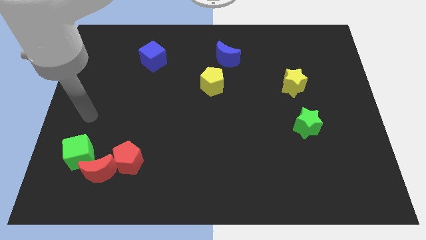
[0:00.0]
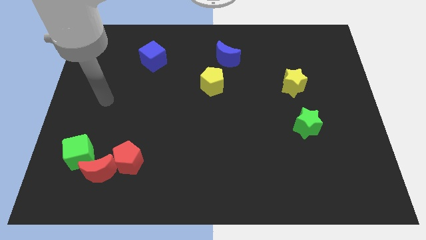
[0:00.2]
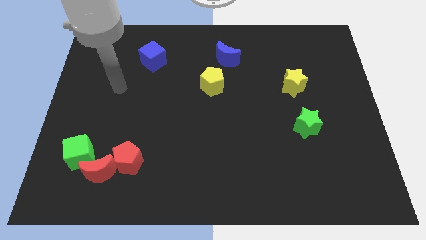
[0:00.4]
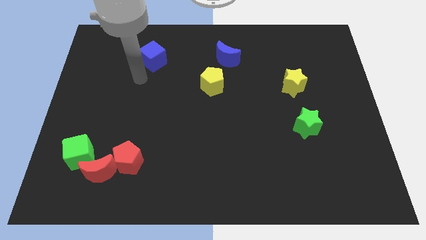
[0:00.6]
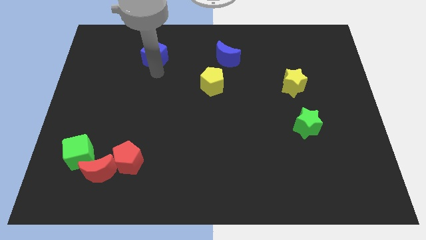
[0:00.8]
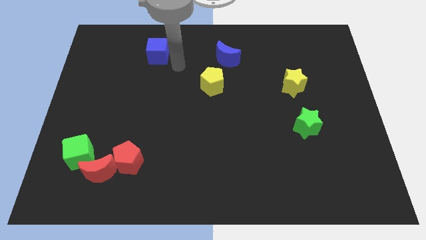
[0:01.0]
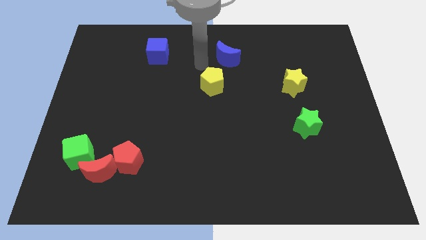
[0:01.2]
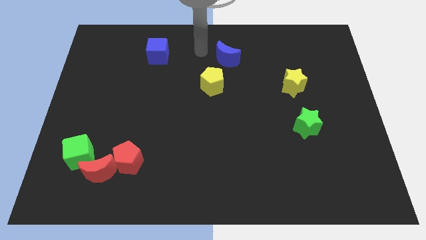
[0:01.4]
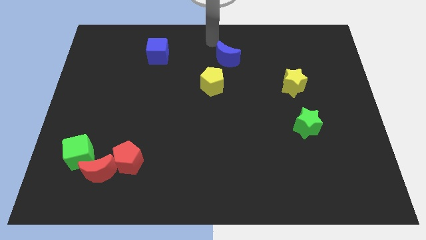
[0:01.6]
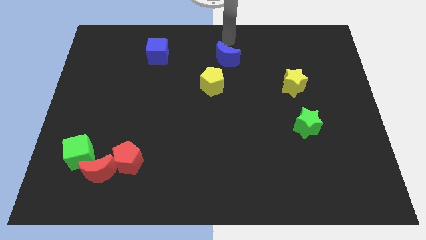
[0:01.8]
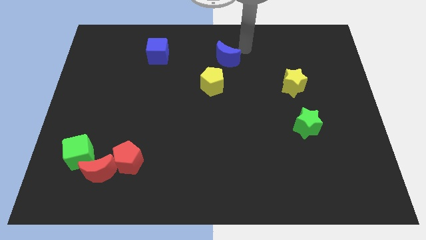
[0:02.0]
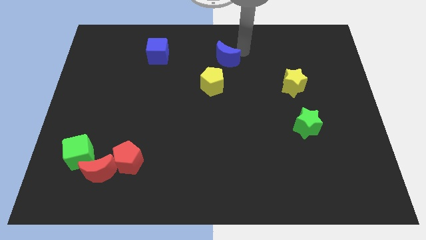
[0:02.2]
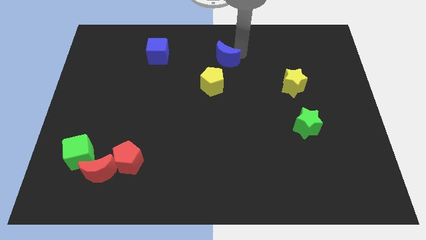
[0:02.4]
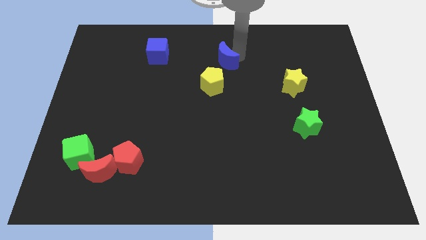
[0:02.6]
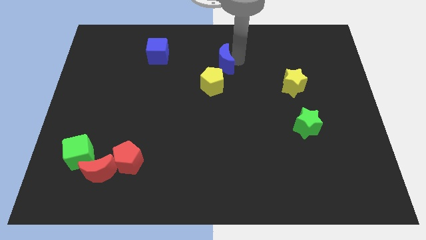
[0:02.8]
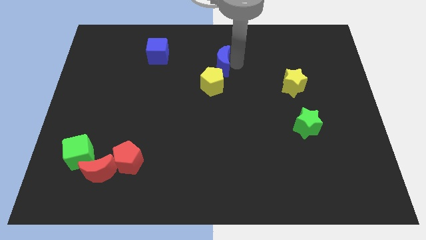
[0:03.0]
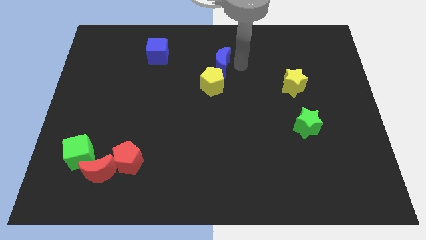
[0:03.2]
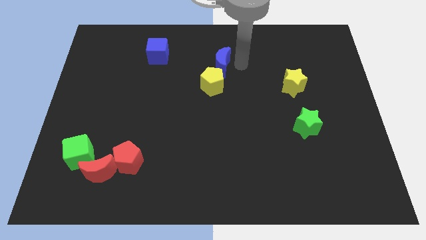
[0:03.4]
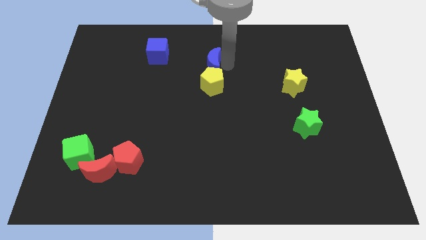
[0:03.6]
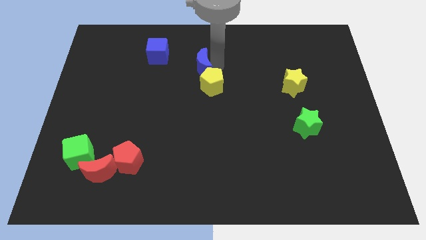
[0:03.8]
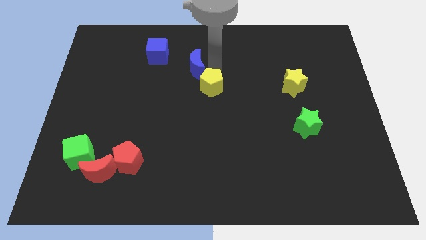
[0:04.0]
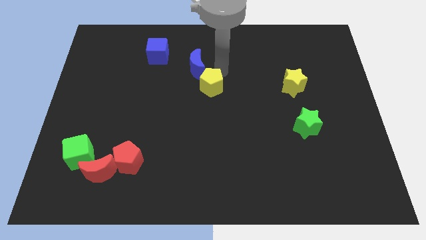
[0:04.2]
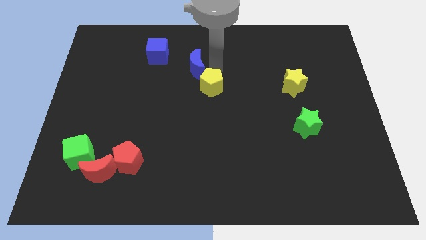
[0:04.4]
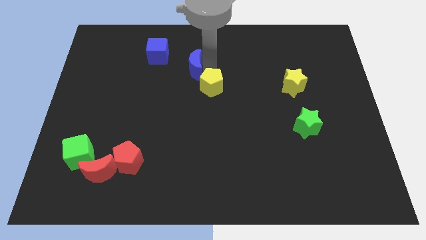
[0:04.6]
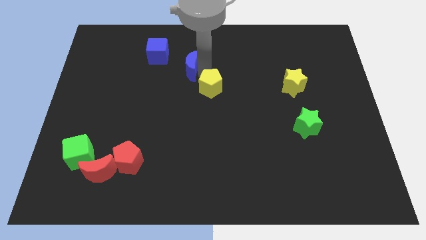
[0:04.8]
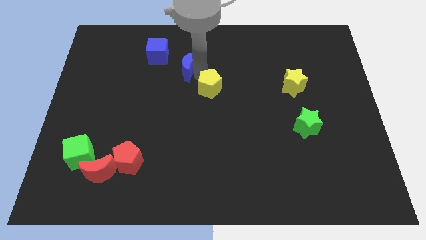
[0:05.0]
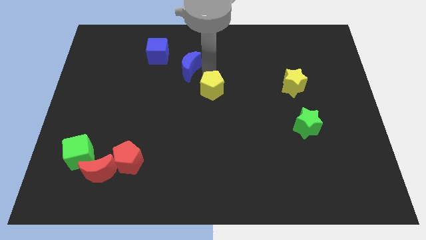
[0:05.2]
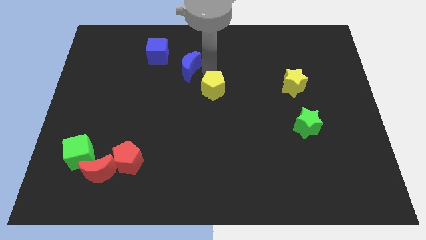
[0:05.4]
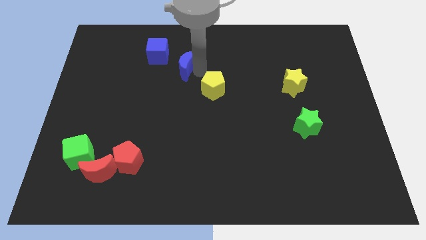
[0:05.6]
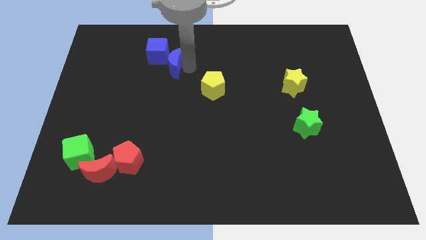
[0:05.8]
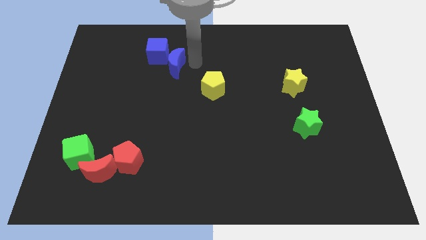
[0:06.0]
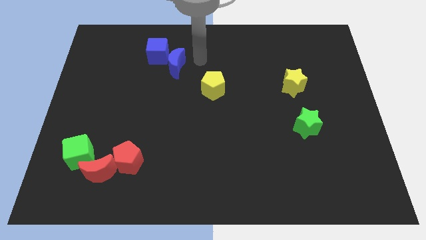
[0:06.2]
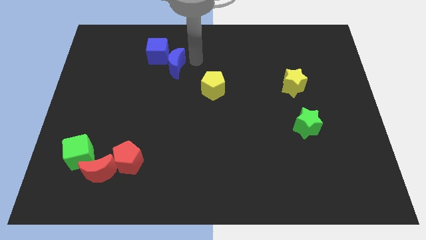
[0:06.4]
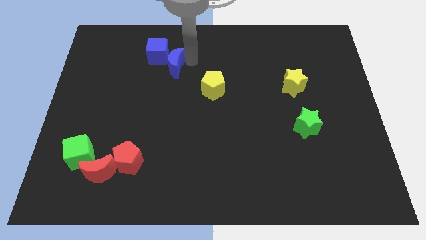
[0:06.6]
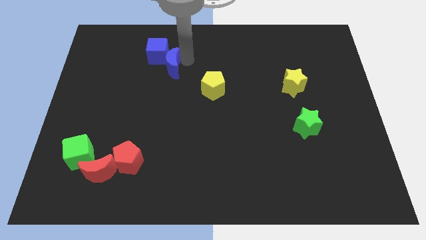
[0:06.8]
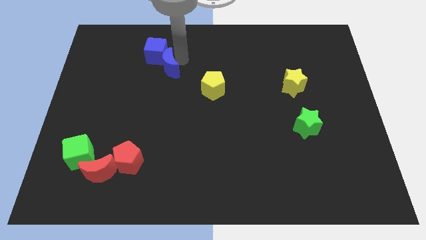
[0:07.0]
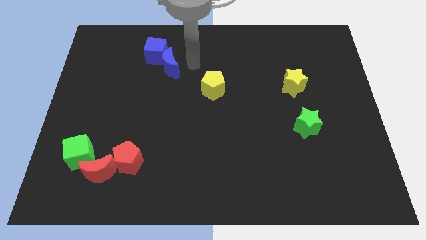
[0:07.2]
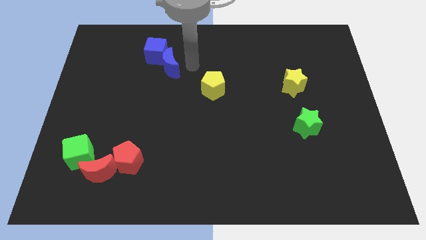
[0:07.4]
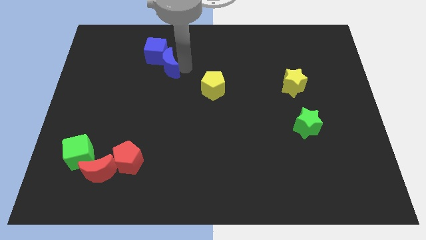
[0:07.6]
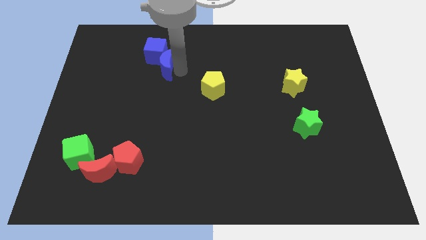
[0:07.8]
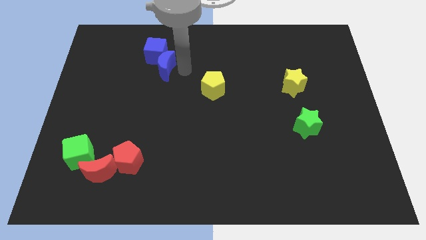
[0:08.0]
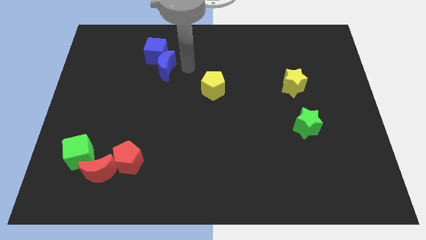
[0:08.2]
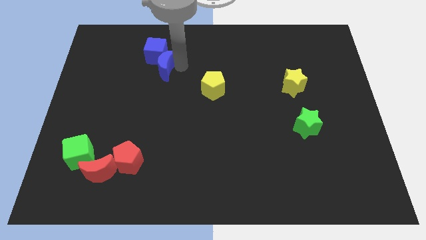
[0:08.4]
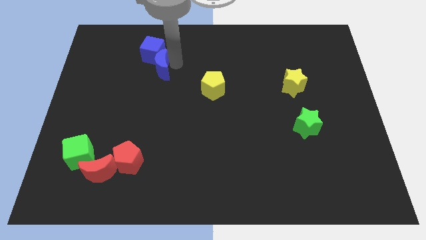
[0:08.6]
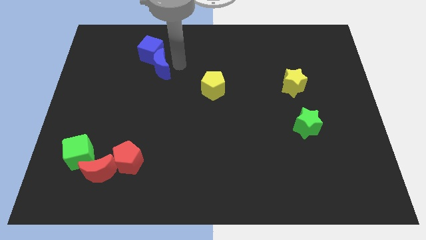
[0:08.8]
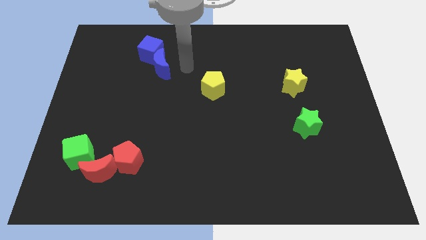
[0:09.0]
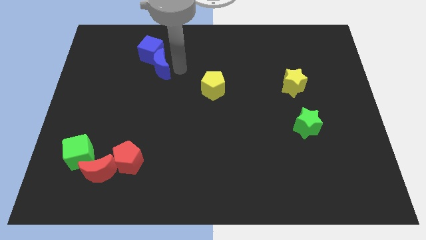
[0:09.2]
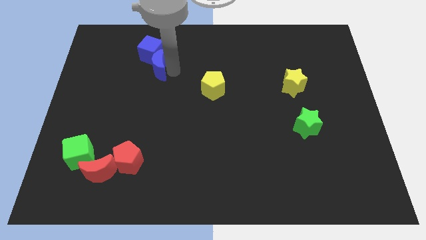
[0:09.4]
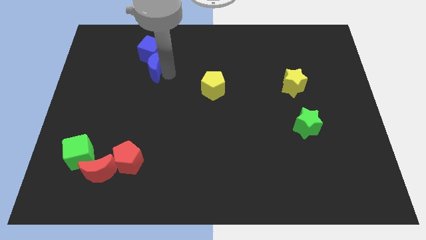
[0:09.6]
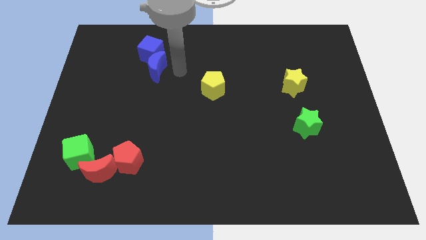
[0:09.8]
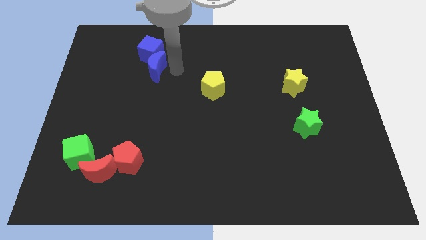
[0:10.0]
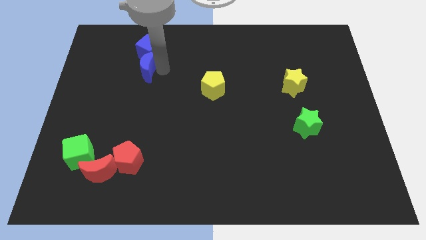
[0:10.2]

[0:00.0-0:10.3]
push the blue moon to the bottom left of the blue cube

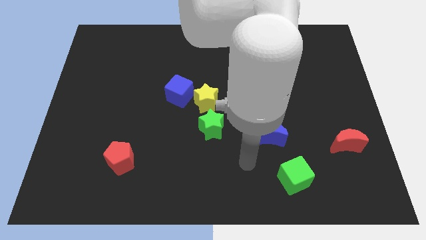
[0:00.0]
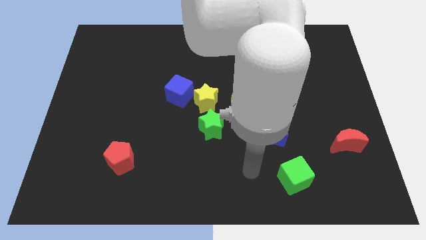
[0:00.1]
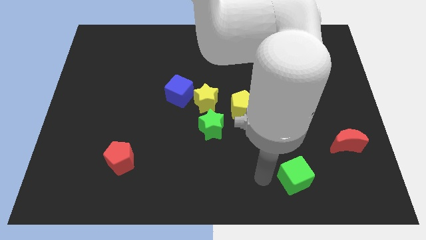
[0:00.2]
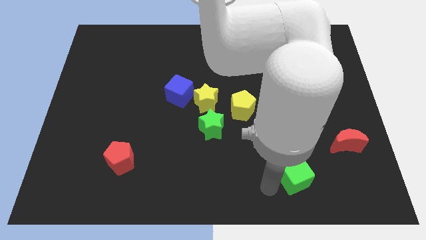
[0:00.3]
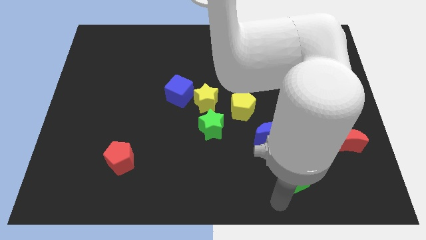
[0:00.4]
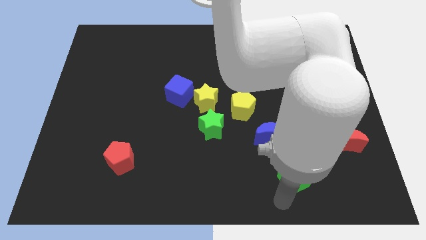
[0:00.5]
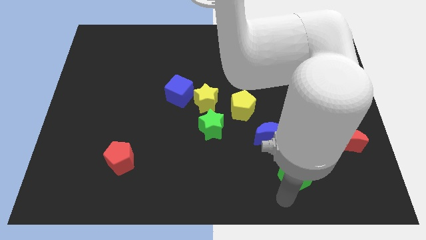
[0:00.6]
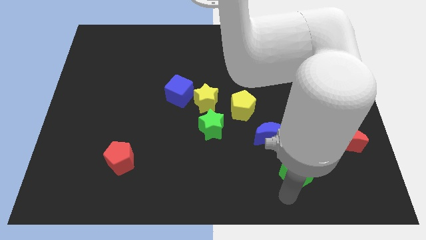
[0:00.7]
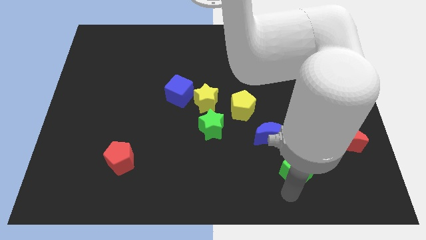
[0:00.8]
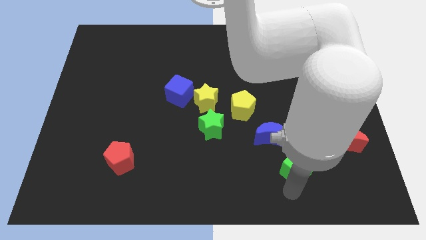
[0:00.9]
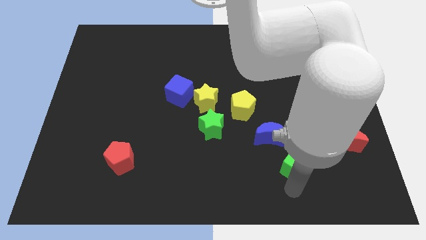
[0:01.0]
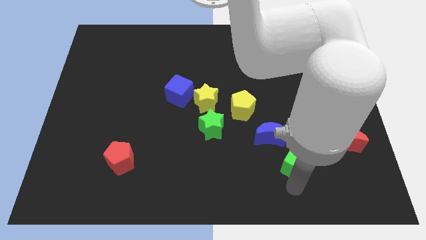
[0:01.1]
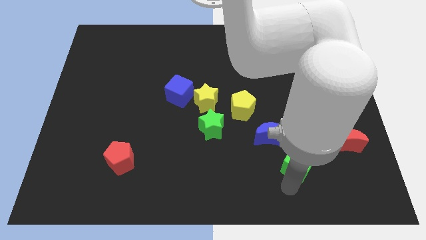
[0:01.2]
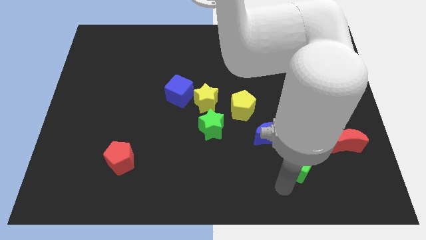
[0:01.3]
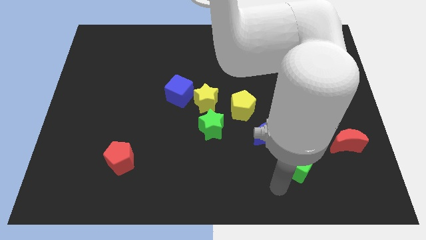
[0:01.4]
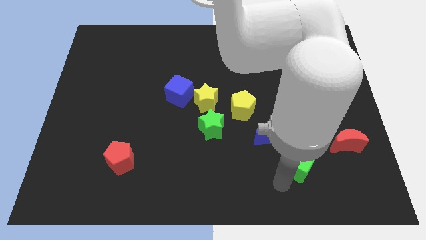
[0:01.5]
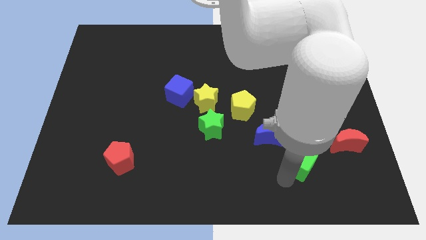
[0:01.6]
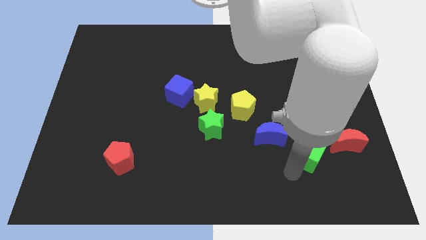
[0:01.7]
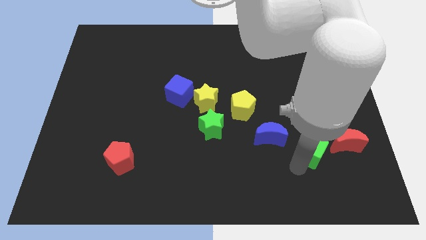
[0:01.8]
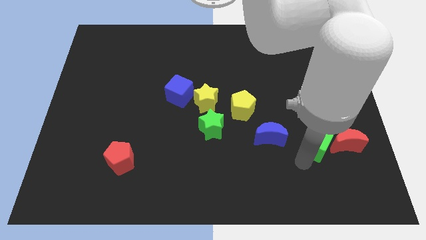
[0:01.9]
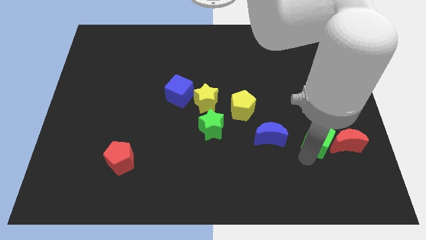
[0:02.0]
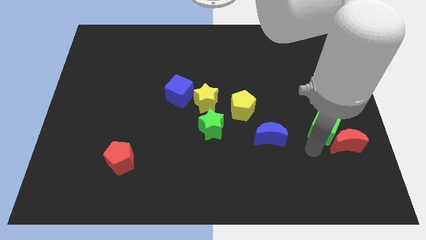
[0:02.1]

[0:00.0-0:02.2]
put the green cube to the top of the red moon
